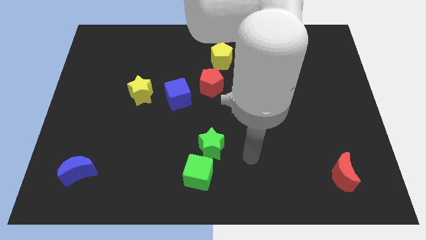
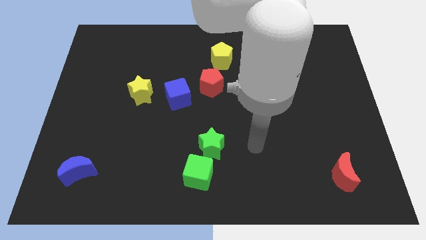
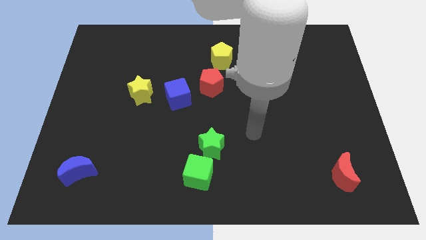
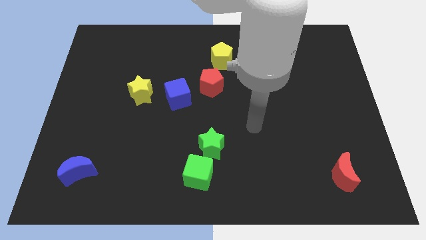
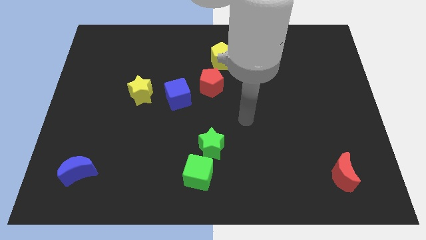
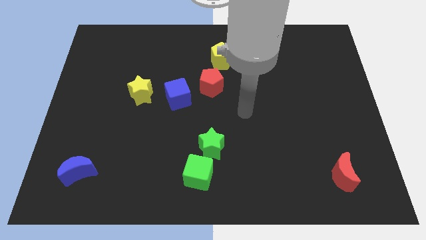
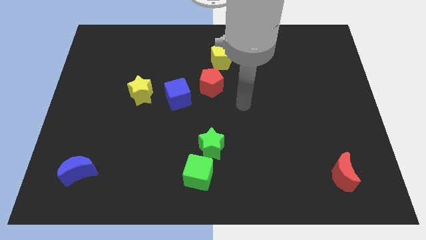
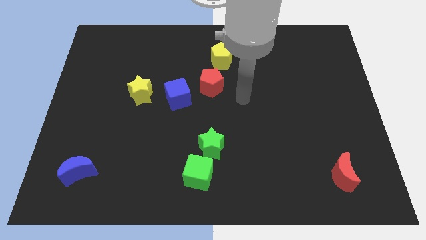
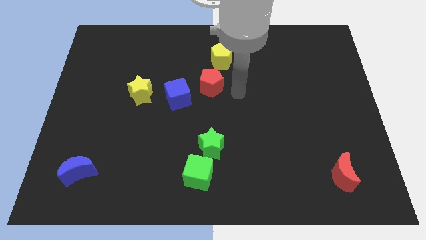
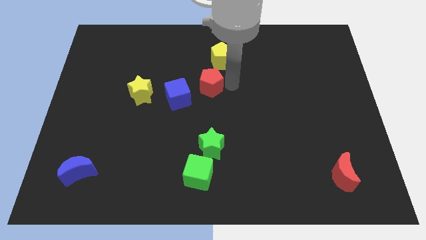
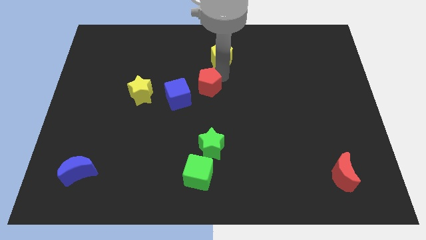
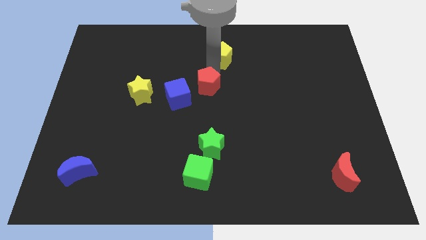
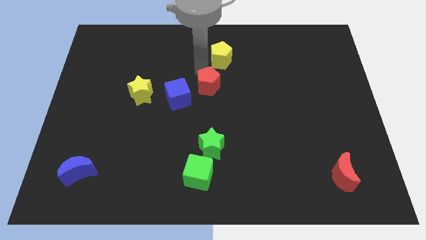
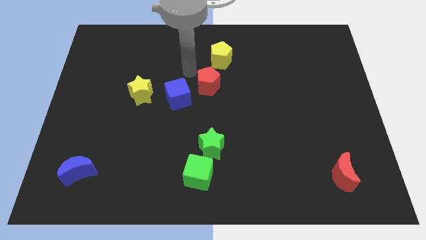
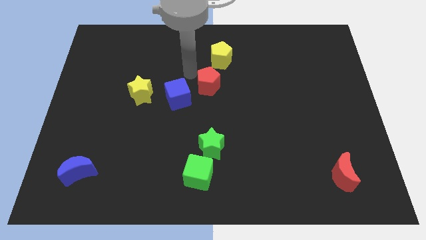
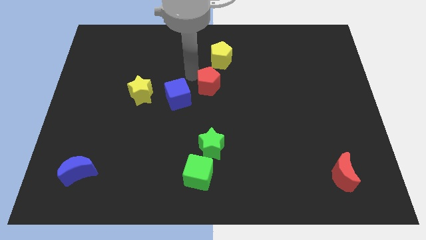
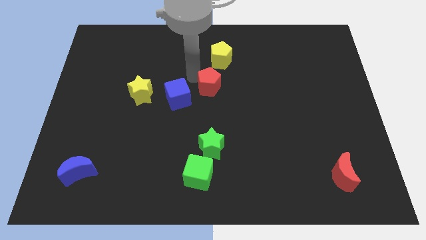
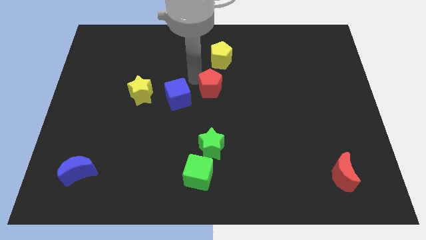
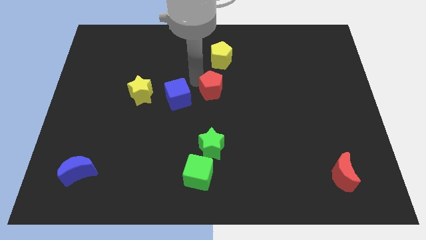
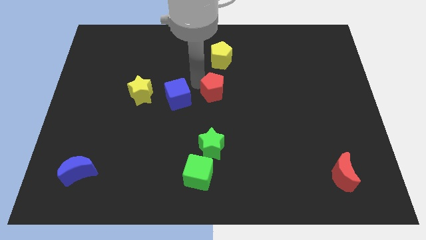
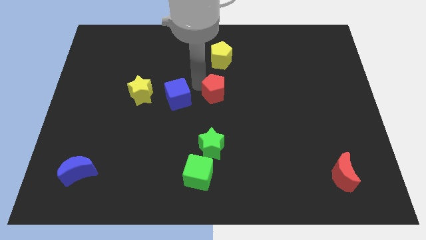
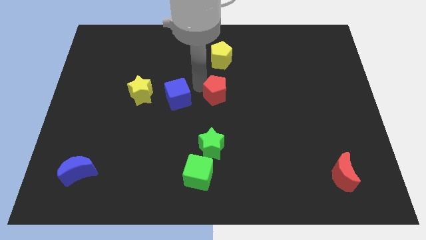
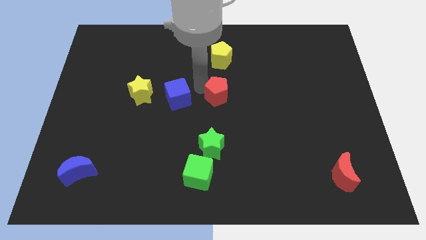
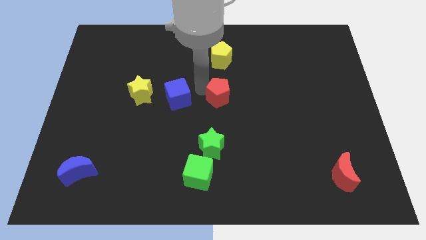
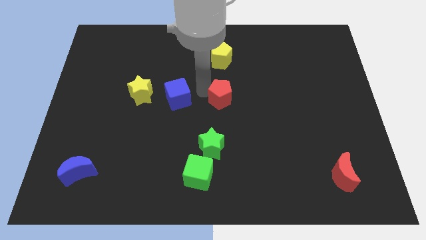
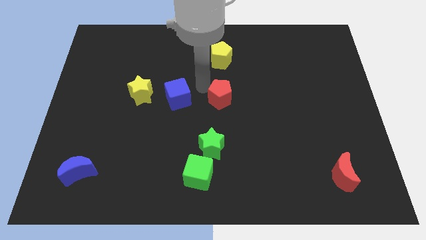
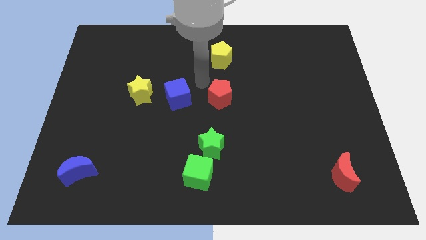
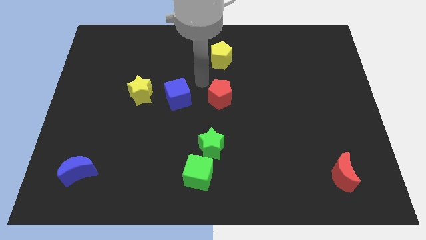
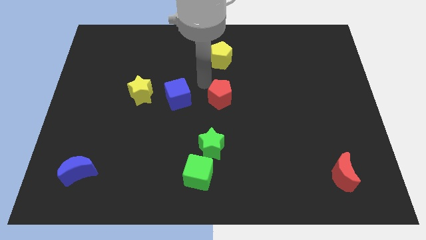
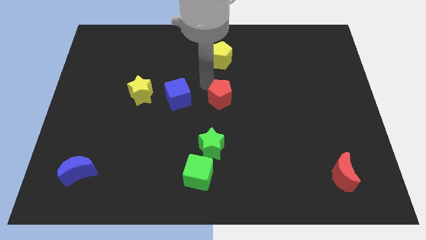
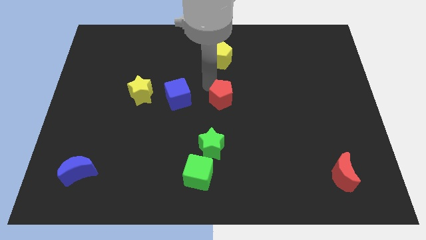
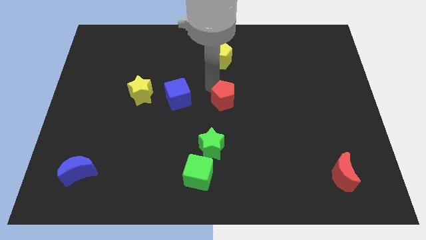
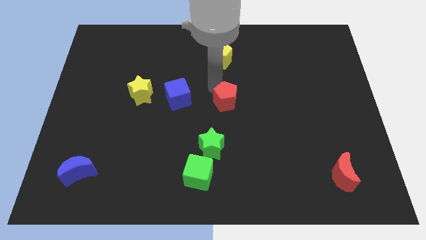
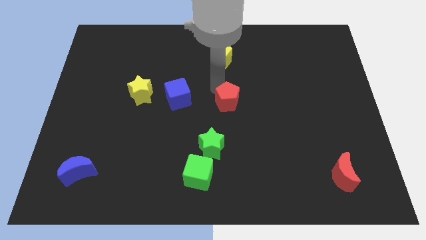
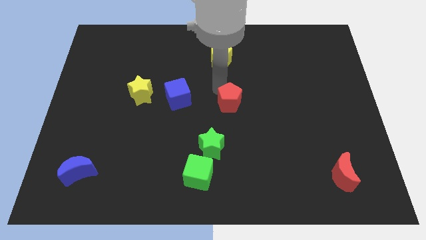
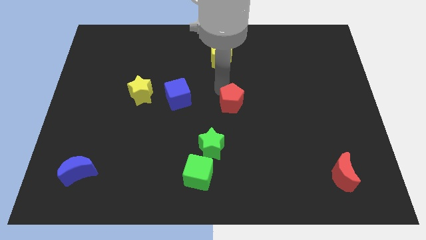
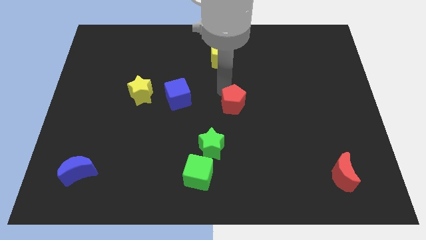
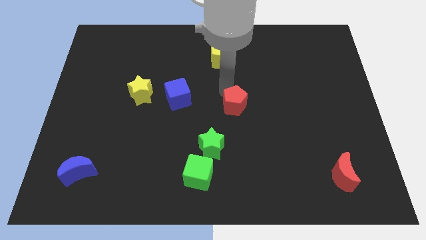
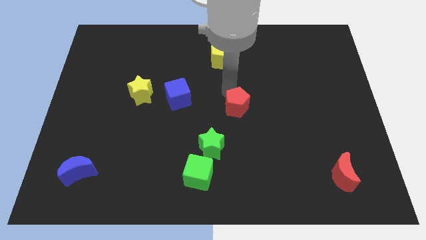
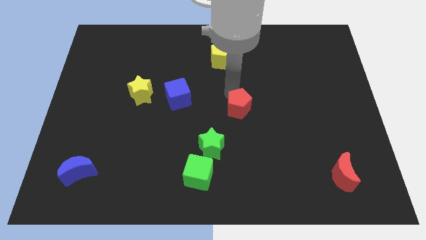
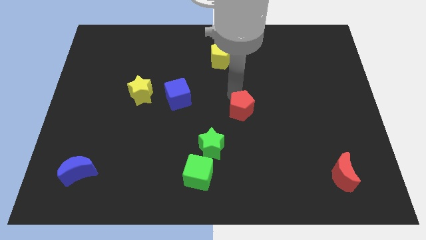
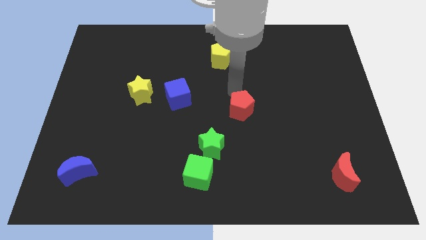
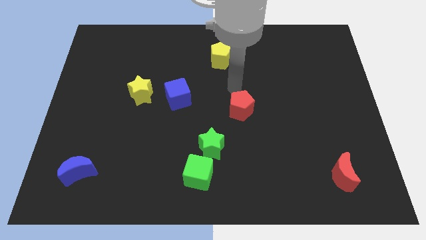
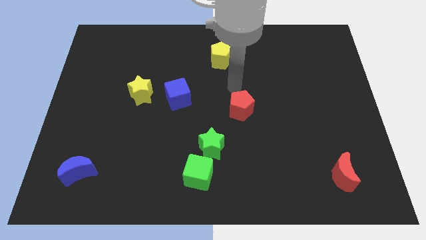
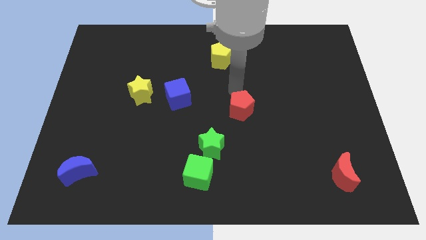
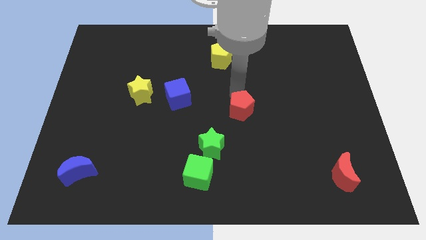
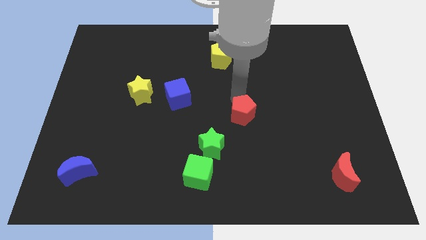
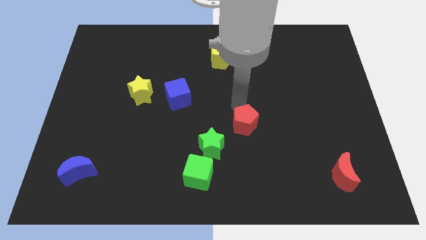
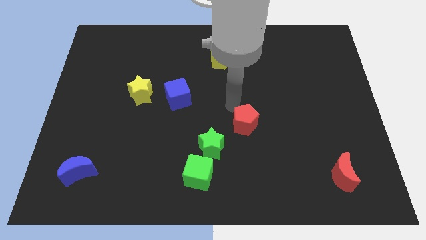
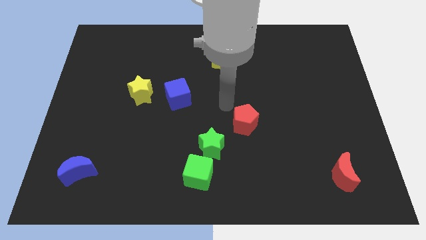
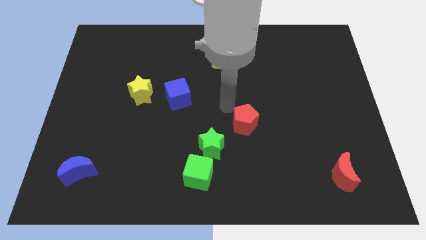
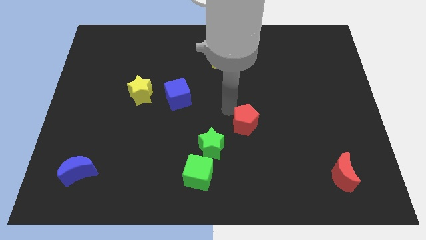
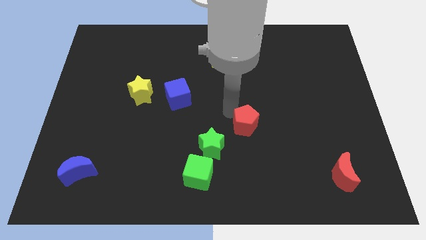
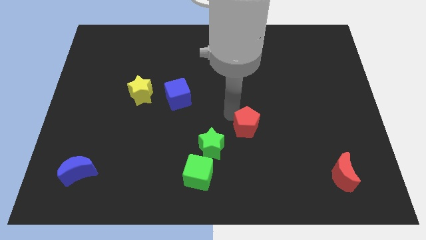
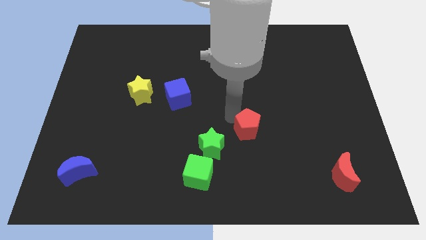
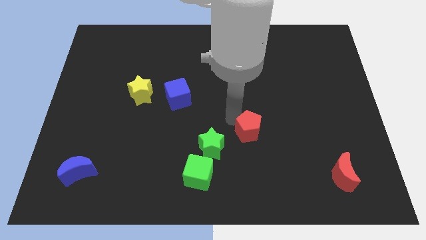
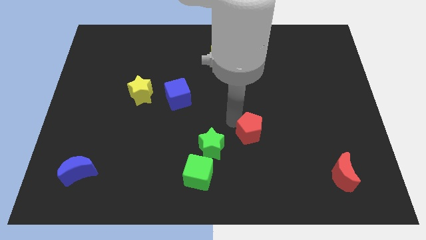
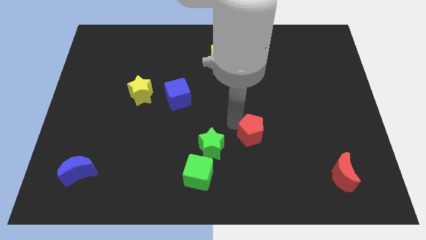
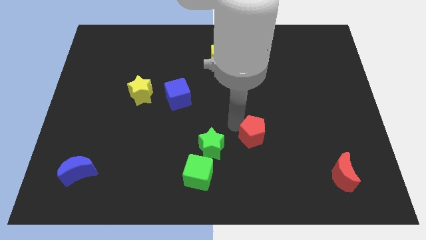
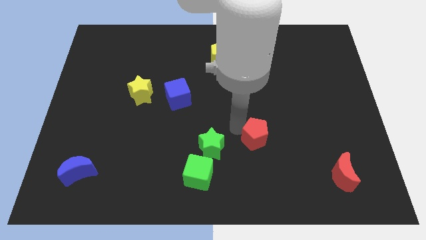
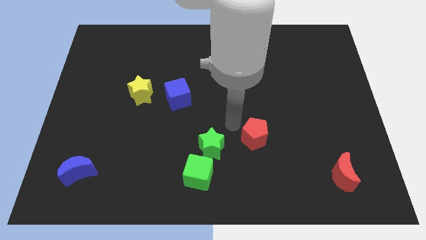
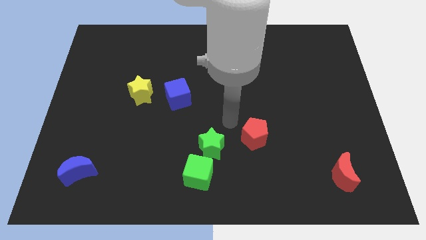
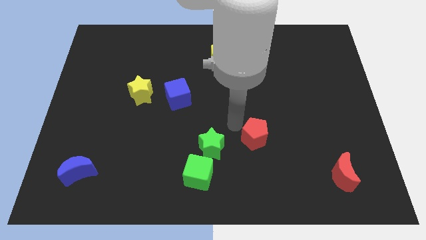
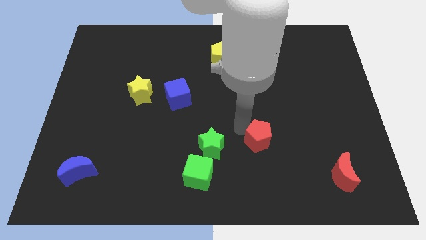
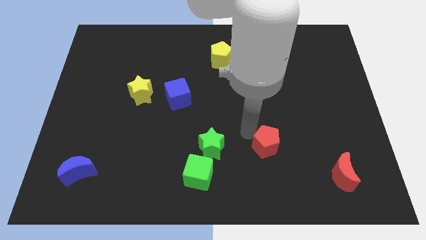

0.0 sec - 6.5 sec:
slide the red pentagon down and then to the right

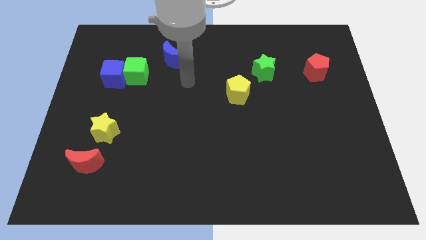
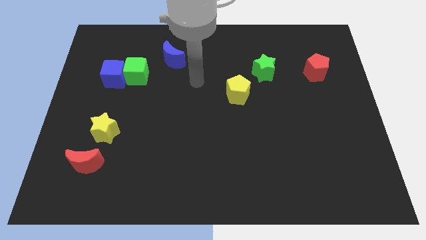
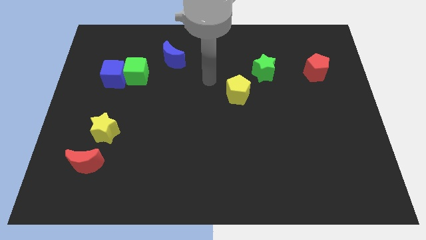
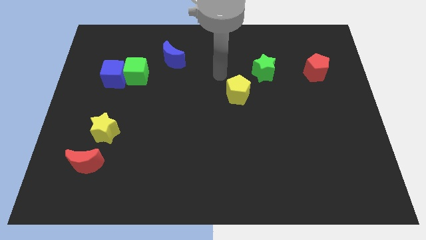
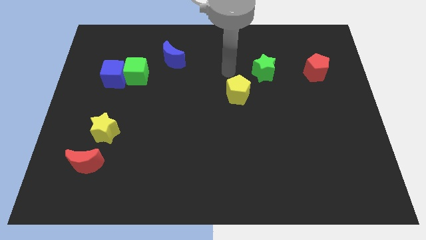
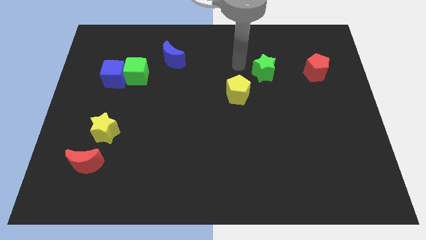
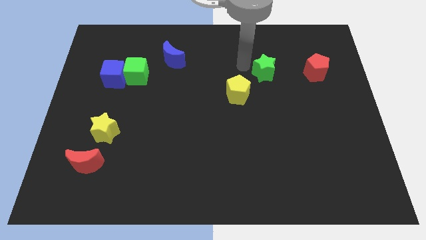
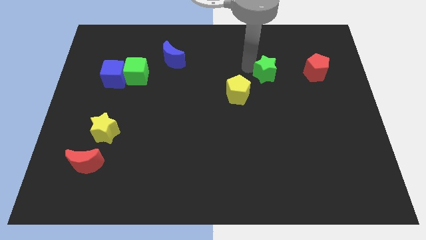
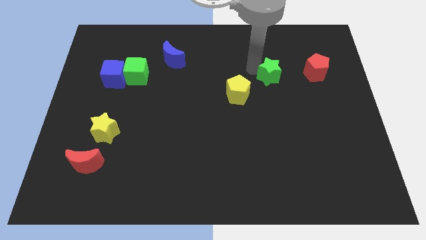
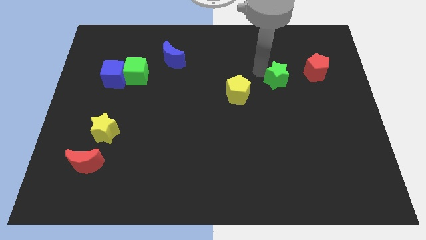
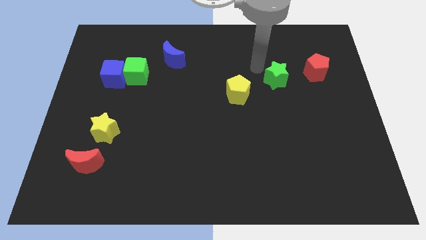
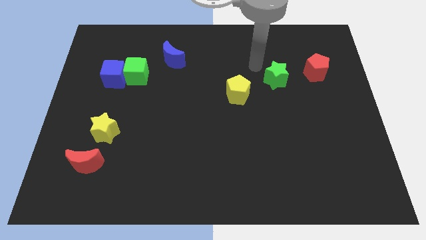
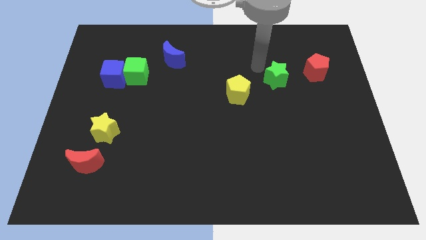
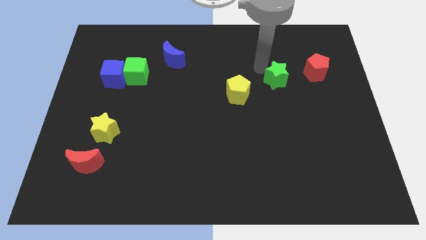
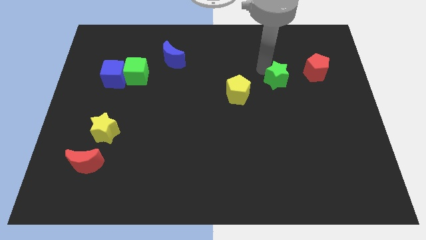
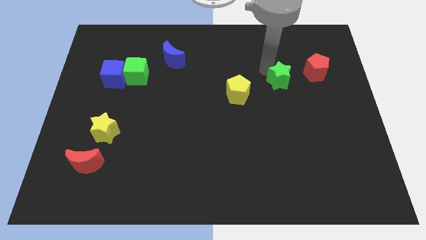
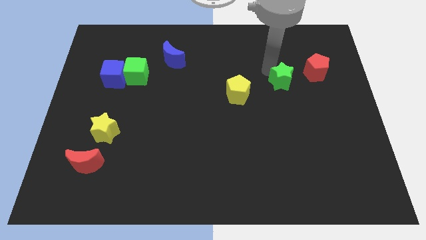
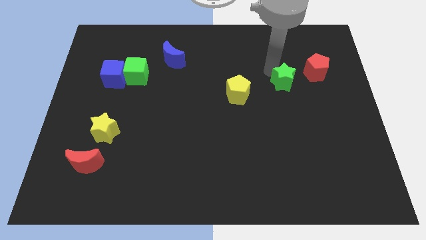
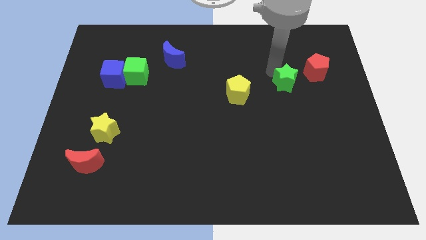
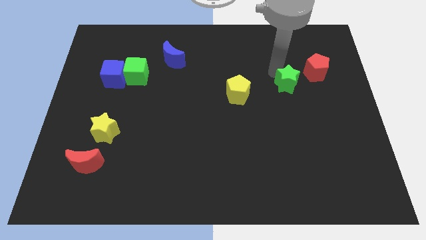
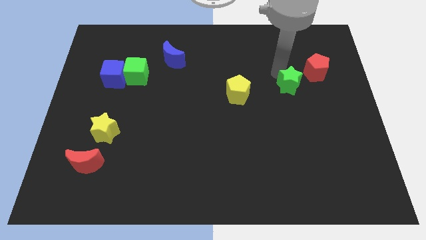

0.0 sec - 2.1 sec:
push the green star down and then to the right a little bit
